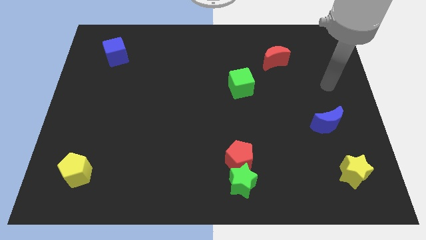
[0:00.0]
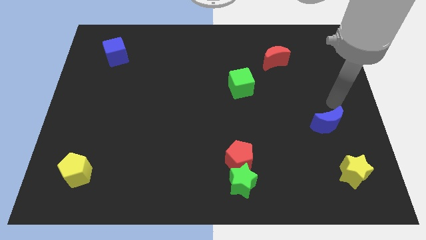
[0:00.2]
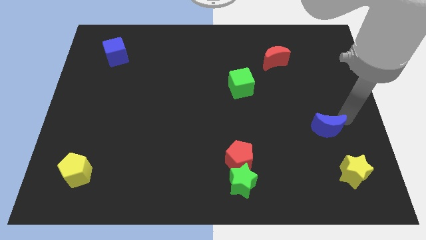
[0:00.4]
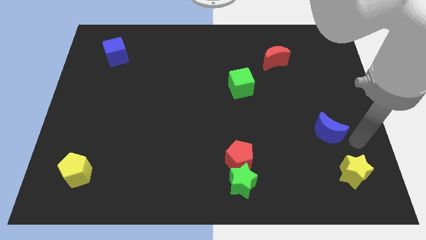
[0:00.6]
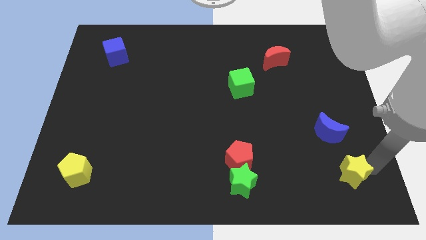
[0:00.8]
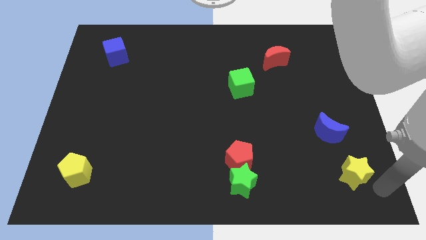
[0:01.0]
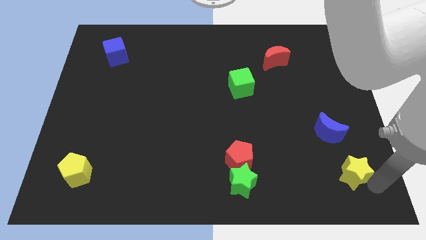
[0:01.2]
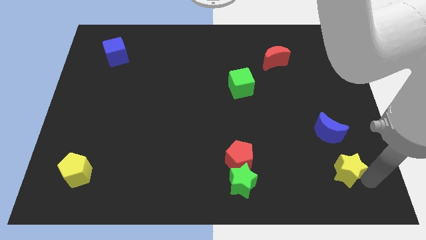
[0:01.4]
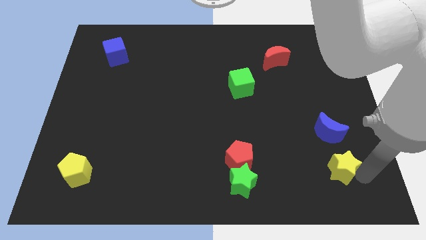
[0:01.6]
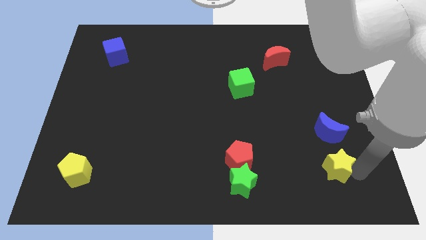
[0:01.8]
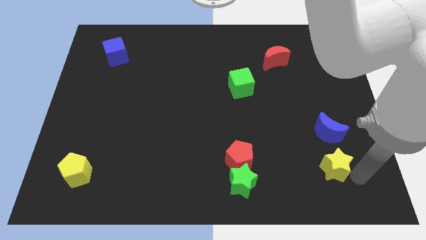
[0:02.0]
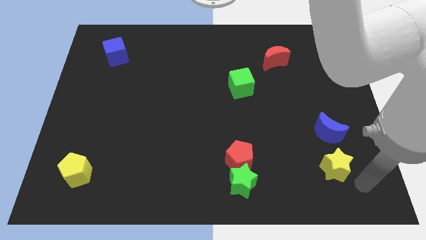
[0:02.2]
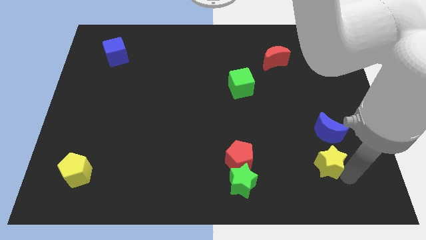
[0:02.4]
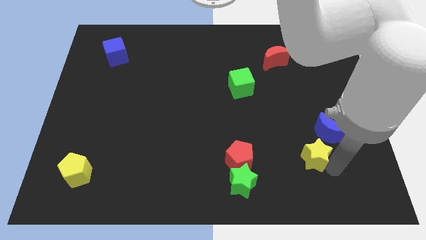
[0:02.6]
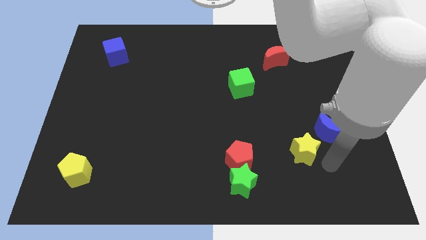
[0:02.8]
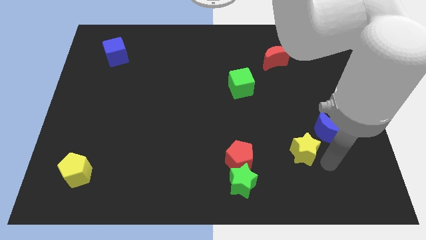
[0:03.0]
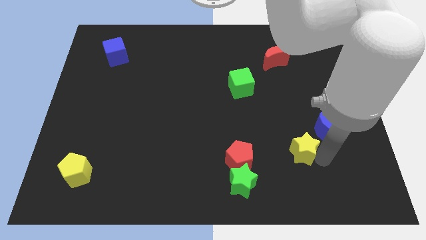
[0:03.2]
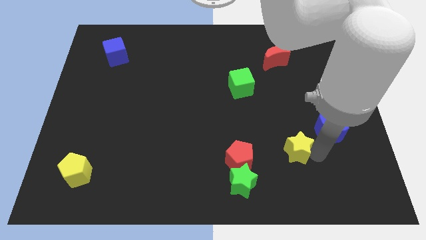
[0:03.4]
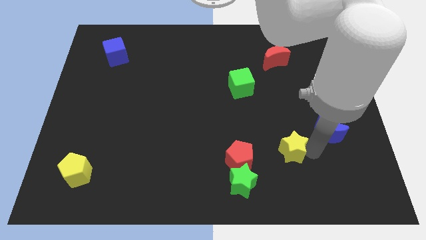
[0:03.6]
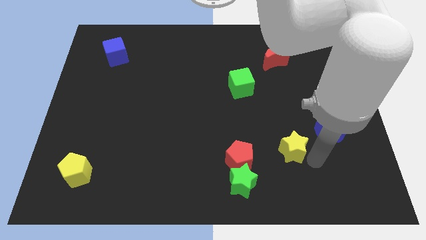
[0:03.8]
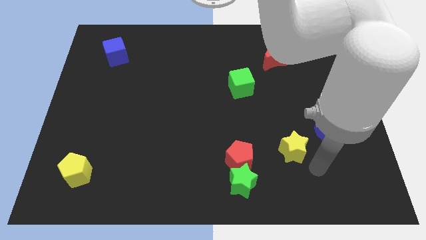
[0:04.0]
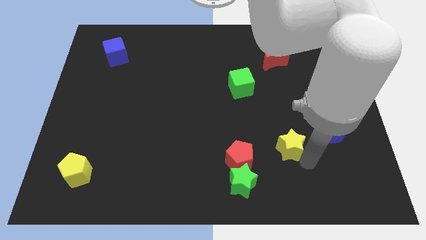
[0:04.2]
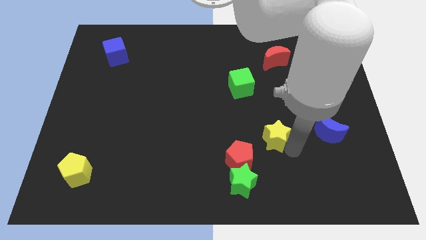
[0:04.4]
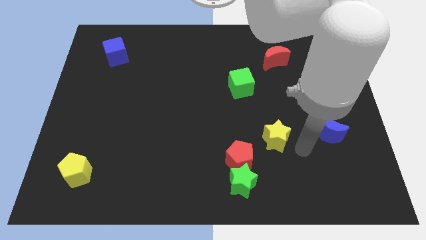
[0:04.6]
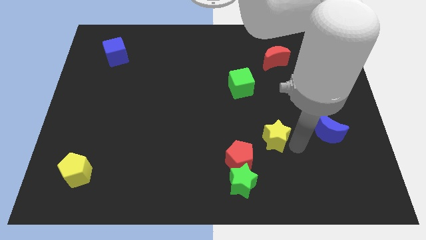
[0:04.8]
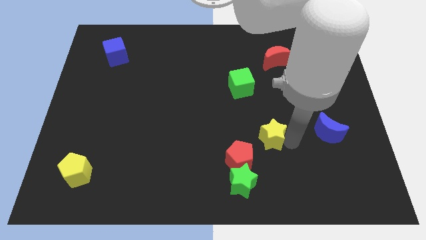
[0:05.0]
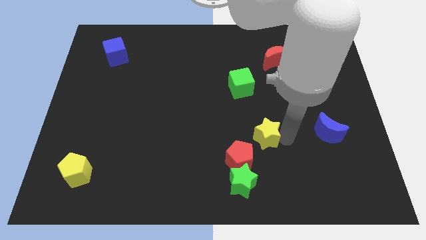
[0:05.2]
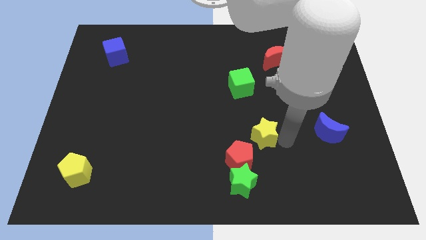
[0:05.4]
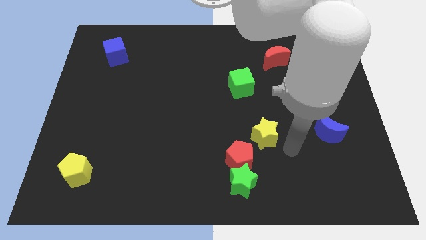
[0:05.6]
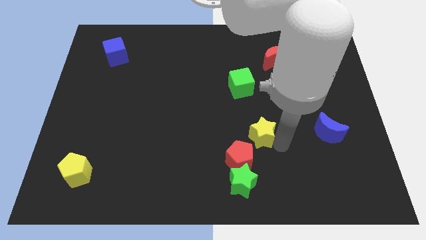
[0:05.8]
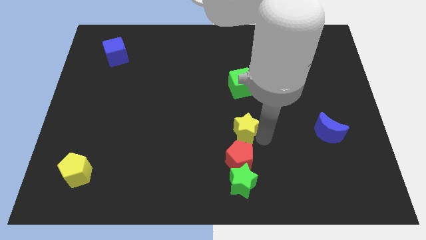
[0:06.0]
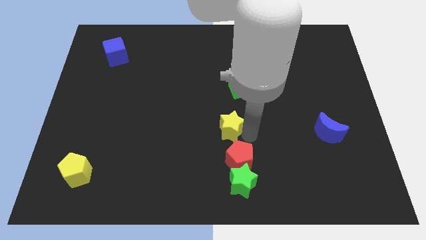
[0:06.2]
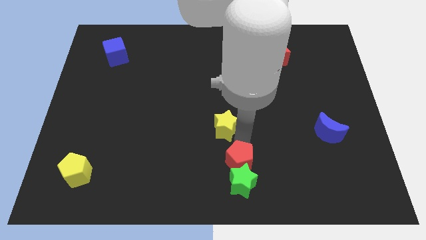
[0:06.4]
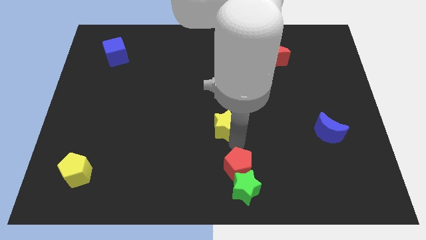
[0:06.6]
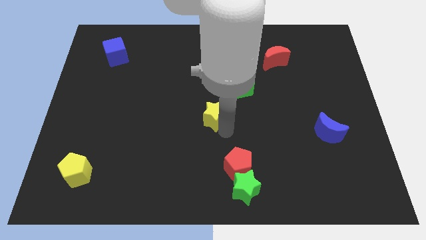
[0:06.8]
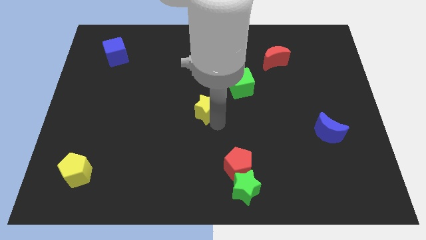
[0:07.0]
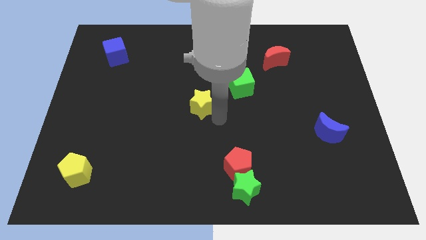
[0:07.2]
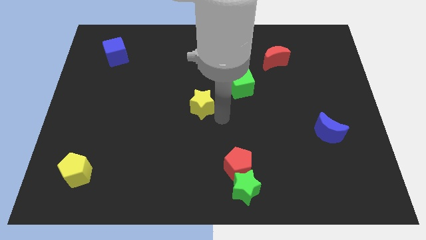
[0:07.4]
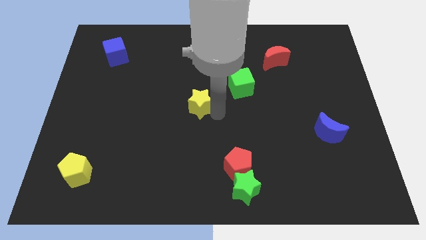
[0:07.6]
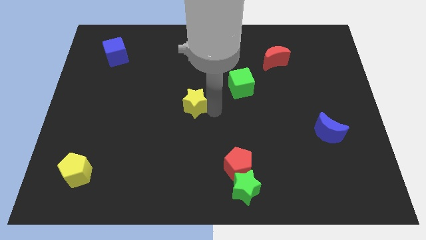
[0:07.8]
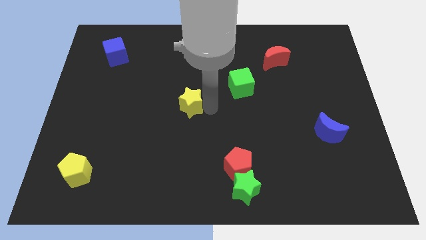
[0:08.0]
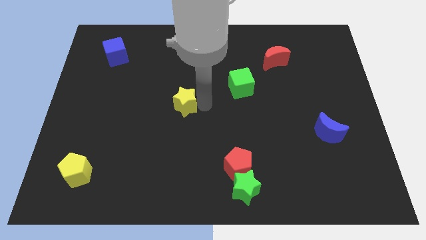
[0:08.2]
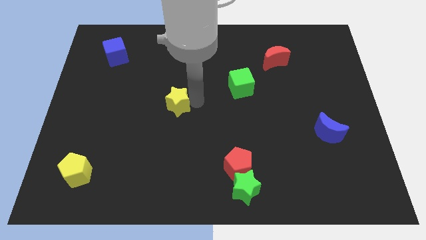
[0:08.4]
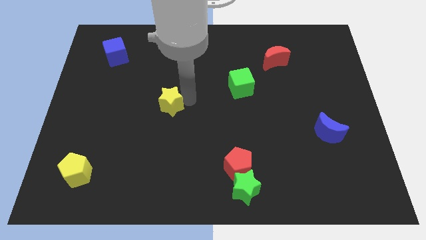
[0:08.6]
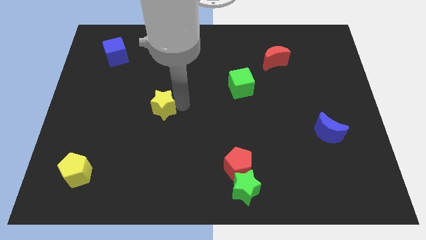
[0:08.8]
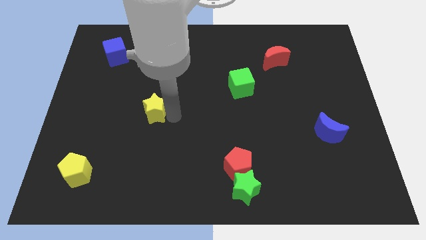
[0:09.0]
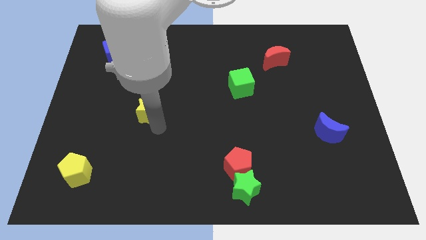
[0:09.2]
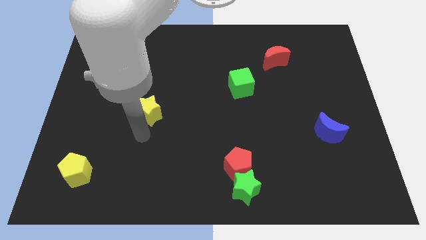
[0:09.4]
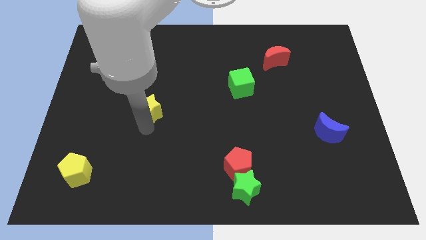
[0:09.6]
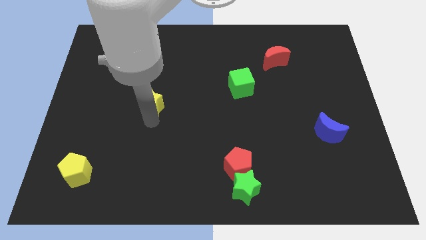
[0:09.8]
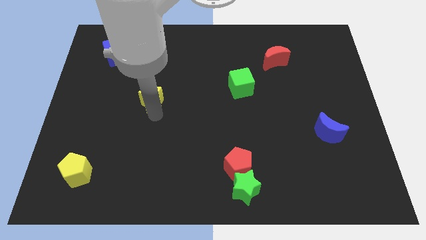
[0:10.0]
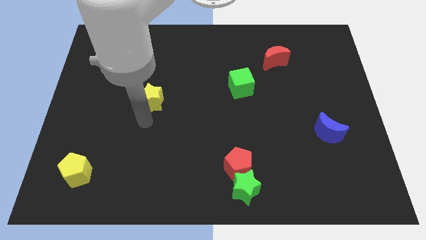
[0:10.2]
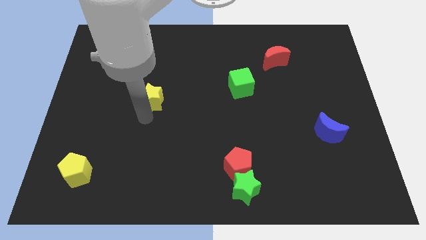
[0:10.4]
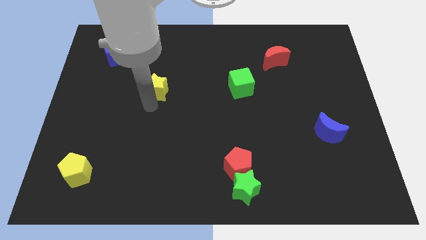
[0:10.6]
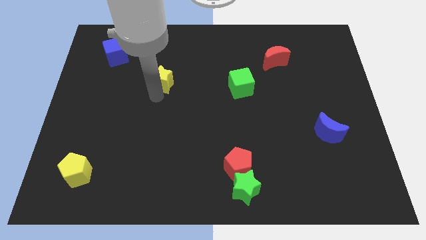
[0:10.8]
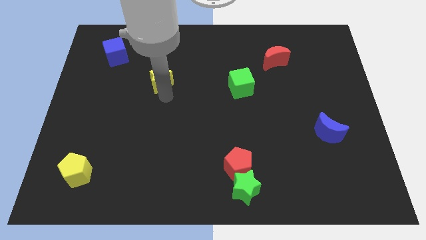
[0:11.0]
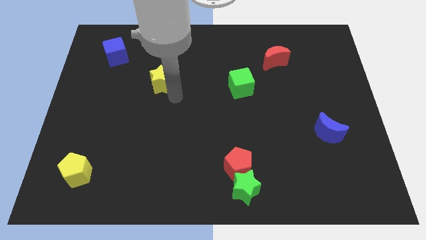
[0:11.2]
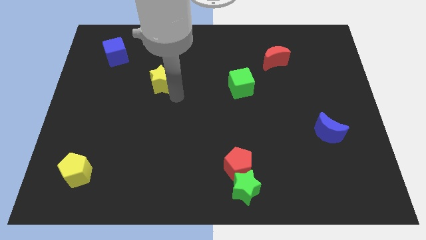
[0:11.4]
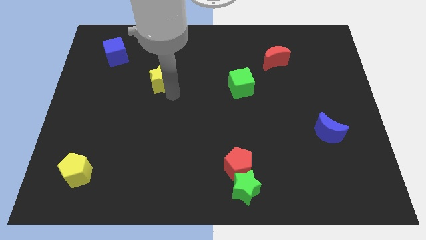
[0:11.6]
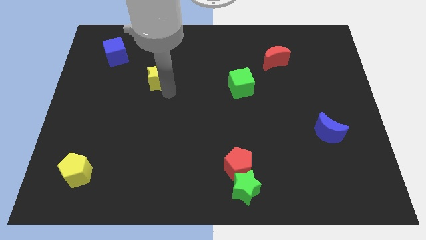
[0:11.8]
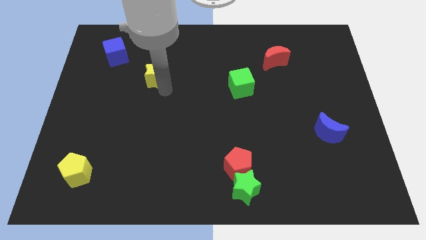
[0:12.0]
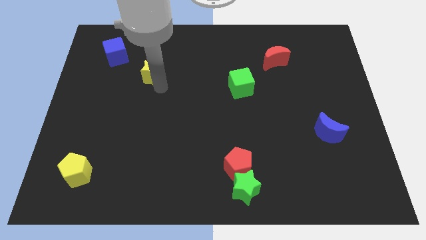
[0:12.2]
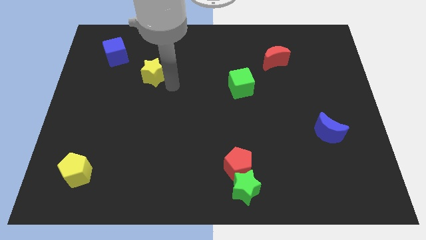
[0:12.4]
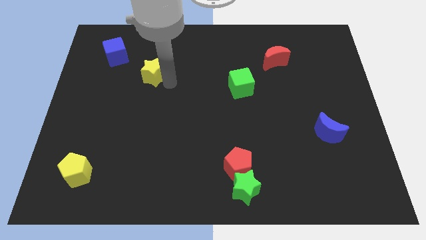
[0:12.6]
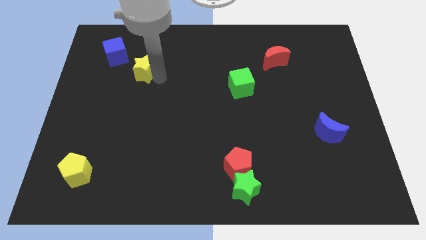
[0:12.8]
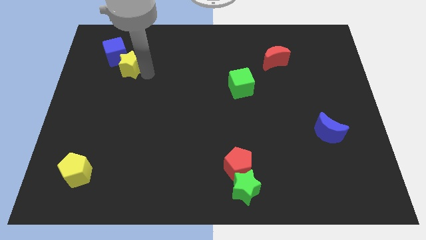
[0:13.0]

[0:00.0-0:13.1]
put the yellow star towards the blue cube
